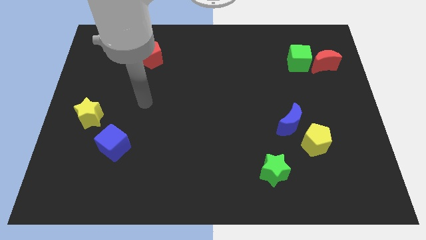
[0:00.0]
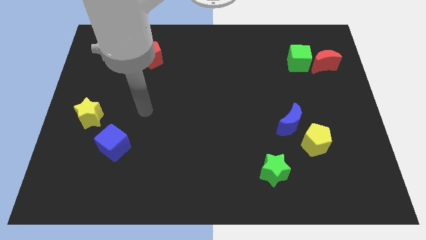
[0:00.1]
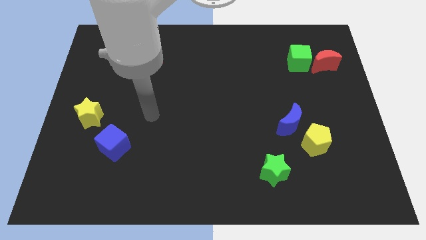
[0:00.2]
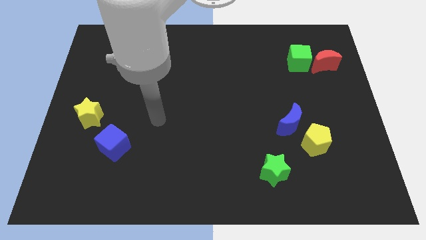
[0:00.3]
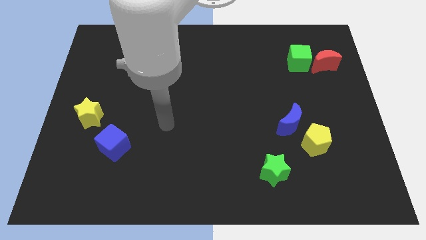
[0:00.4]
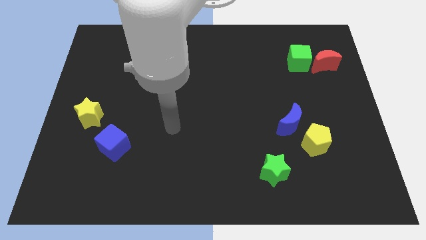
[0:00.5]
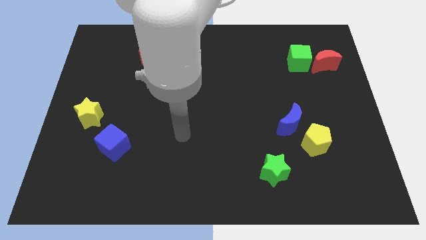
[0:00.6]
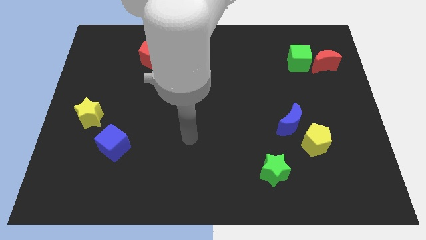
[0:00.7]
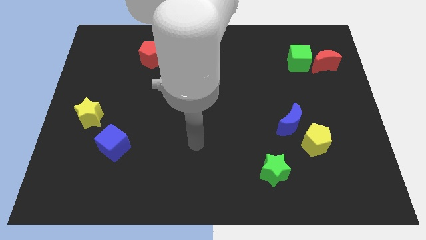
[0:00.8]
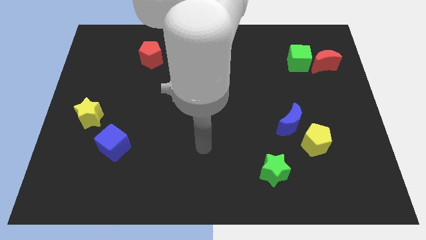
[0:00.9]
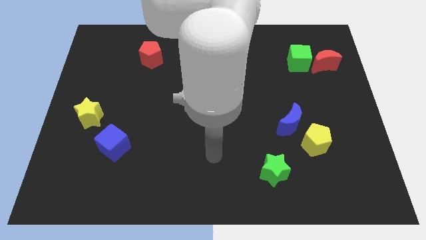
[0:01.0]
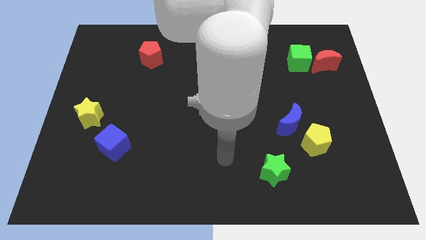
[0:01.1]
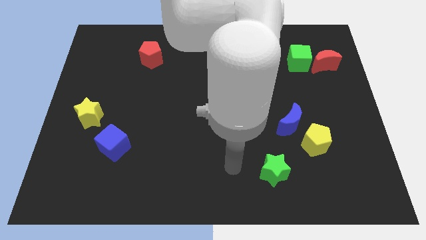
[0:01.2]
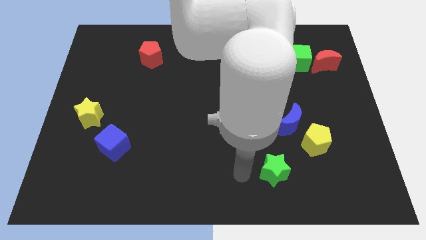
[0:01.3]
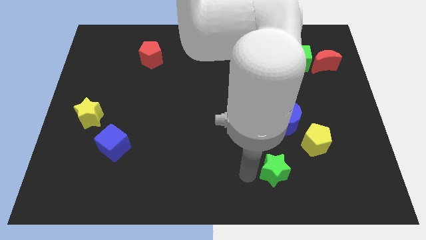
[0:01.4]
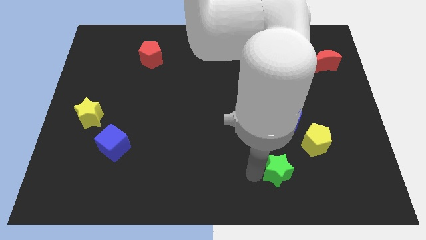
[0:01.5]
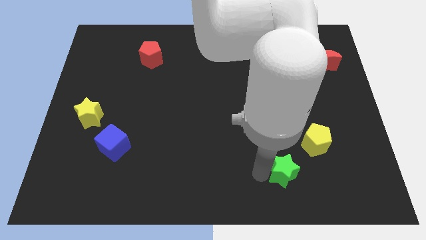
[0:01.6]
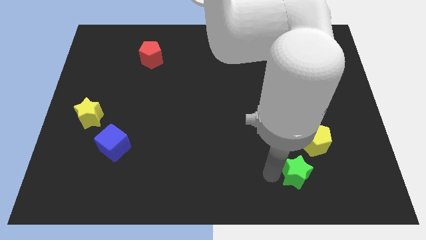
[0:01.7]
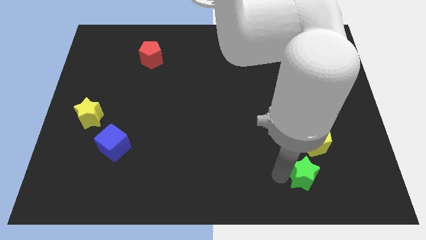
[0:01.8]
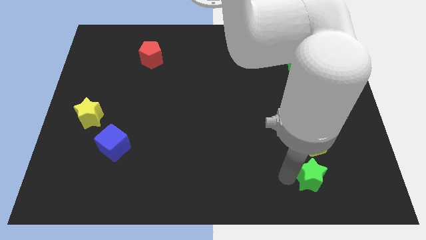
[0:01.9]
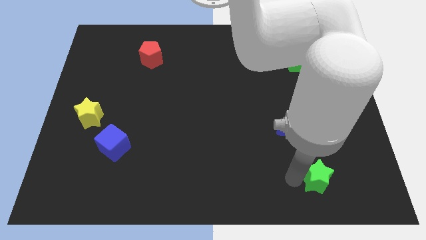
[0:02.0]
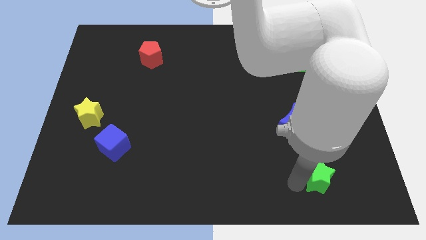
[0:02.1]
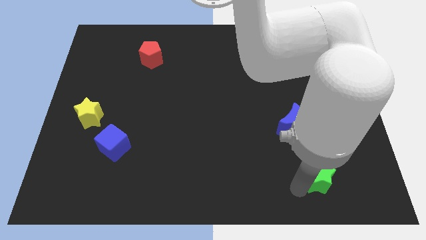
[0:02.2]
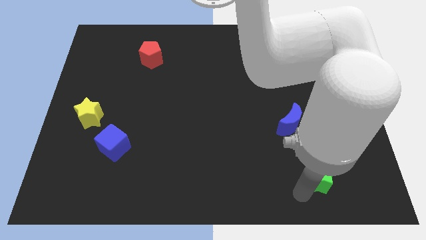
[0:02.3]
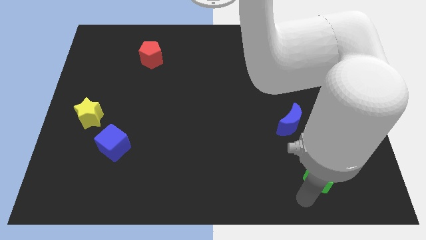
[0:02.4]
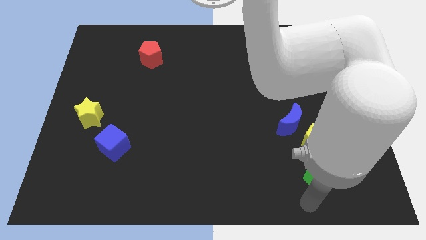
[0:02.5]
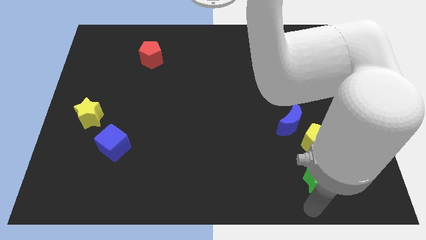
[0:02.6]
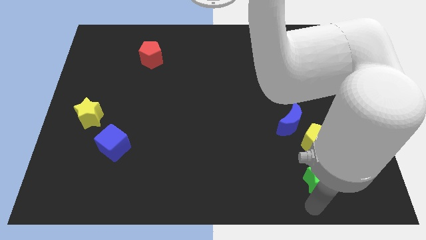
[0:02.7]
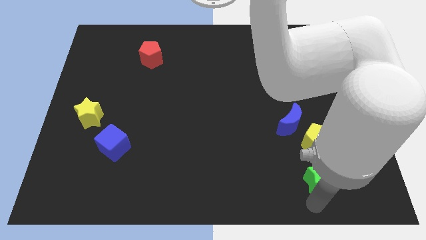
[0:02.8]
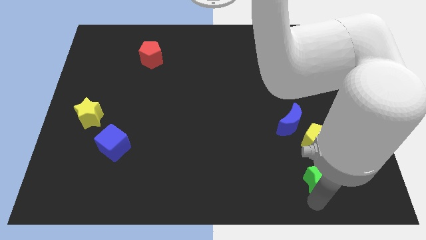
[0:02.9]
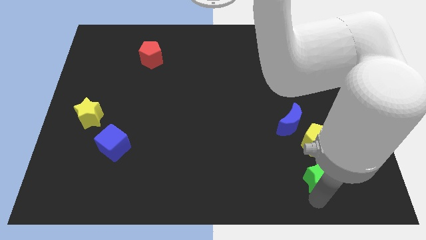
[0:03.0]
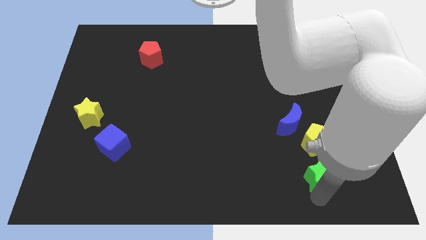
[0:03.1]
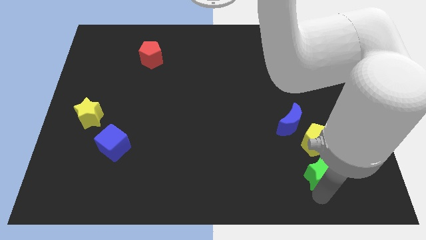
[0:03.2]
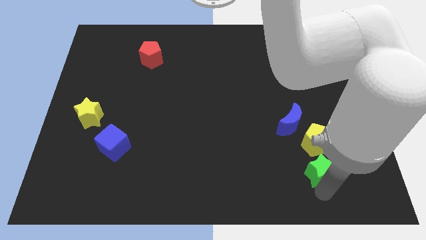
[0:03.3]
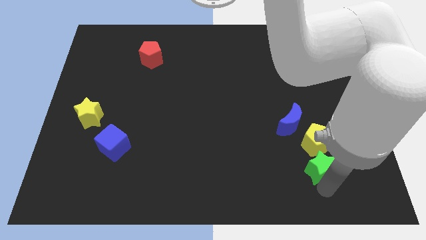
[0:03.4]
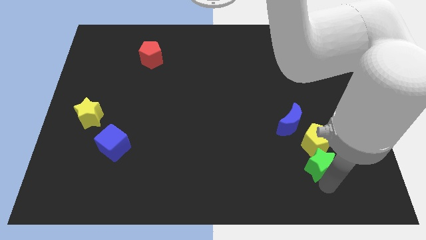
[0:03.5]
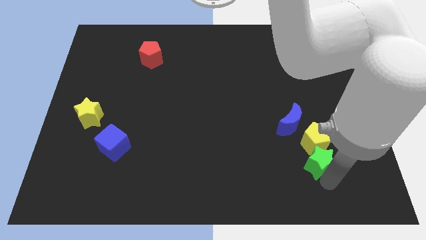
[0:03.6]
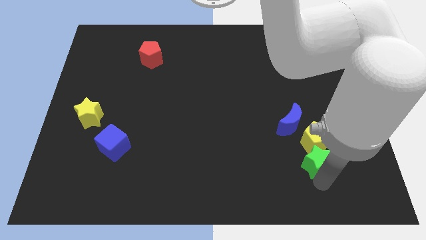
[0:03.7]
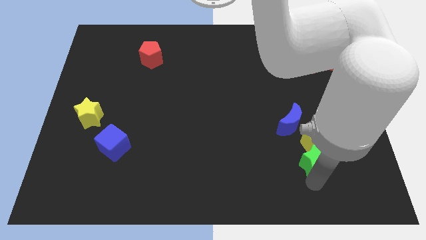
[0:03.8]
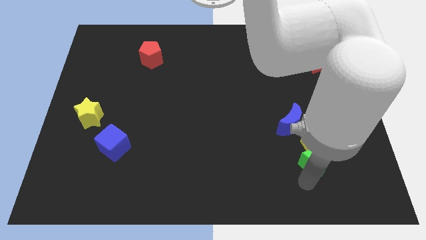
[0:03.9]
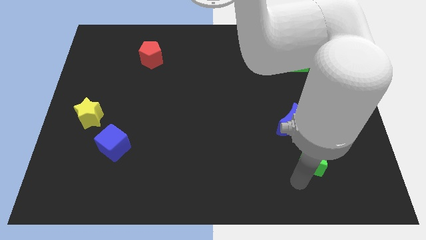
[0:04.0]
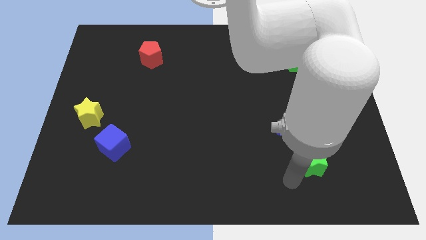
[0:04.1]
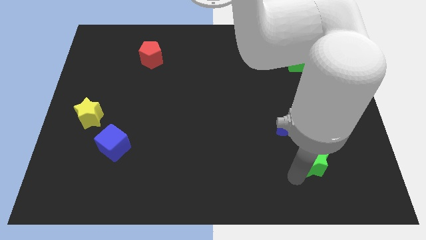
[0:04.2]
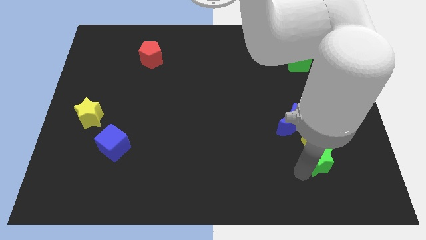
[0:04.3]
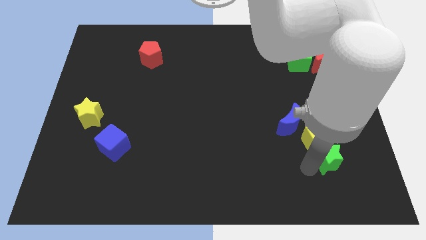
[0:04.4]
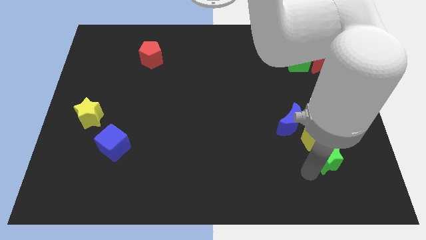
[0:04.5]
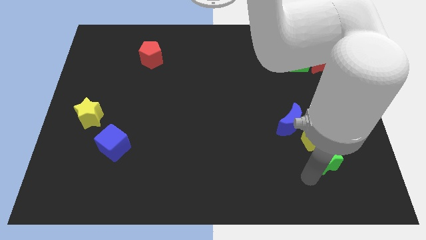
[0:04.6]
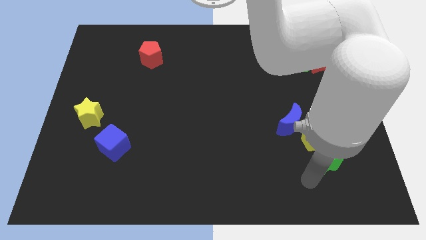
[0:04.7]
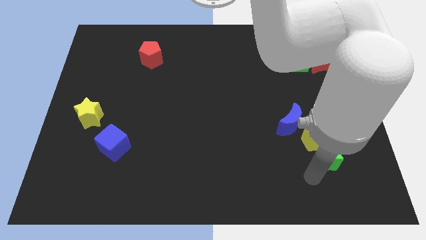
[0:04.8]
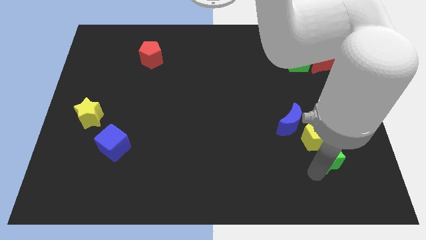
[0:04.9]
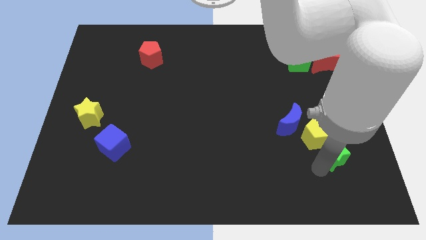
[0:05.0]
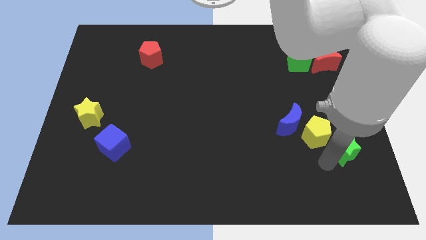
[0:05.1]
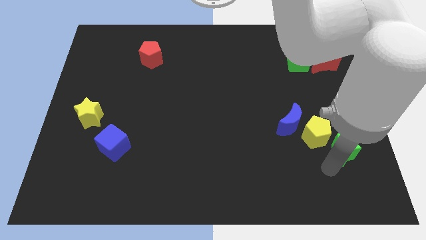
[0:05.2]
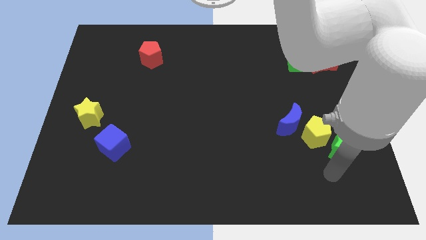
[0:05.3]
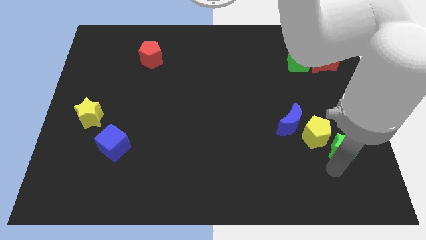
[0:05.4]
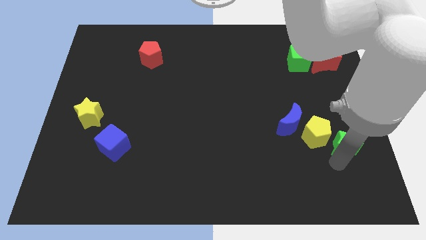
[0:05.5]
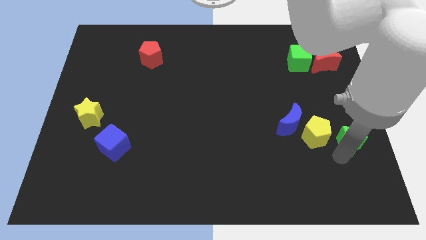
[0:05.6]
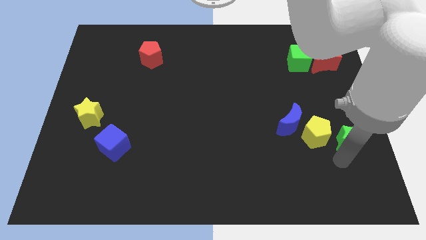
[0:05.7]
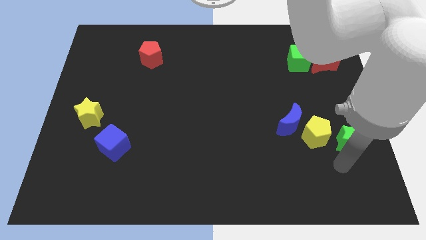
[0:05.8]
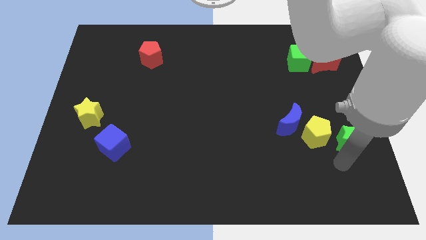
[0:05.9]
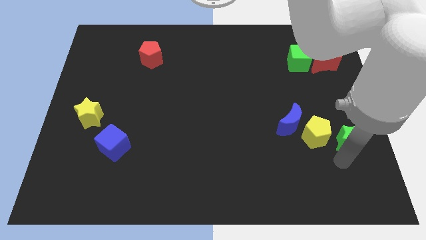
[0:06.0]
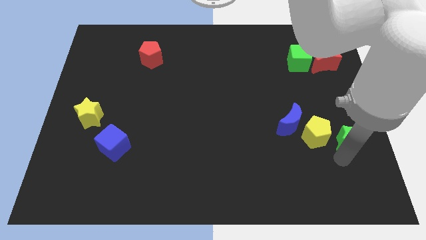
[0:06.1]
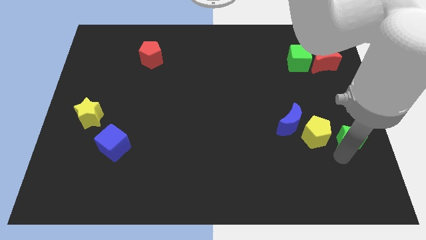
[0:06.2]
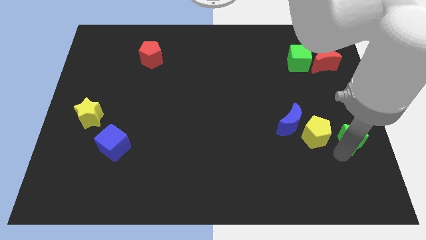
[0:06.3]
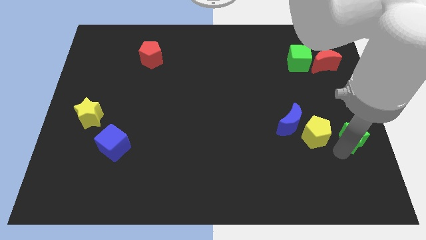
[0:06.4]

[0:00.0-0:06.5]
slide the green star to the right side
